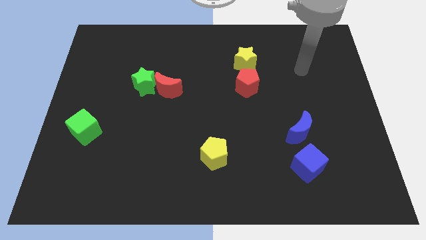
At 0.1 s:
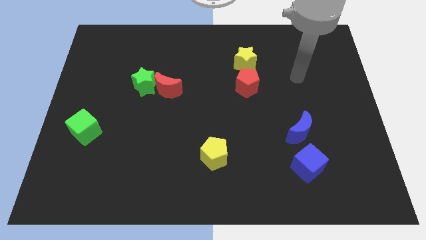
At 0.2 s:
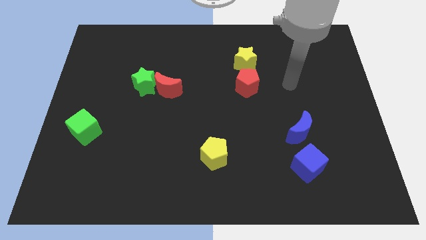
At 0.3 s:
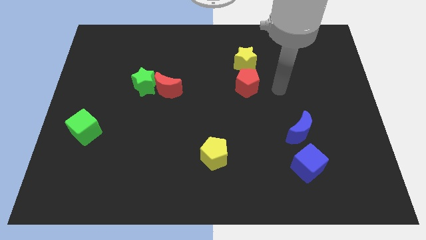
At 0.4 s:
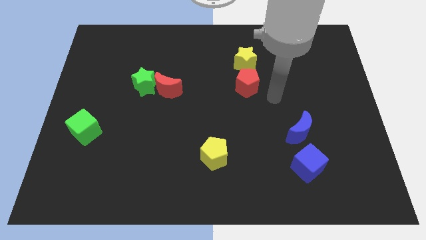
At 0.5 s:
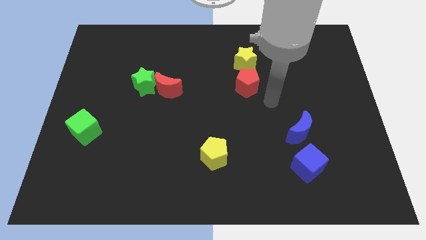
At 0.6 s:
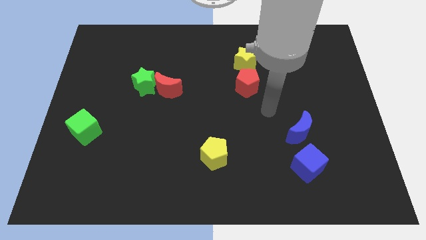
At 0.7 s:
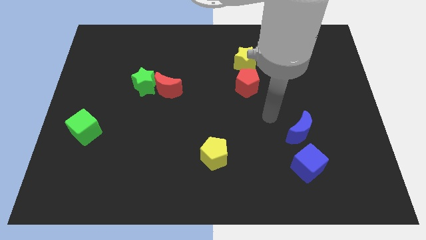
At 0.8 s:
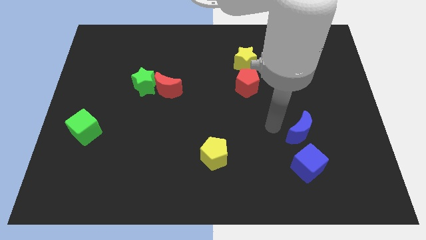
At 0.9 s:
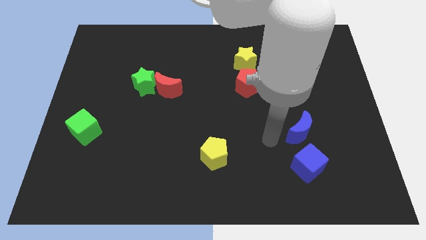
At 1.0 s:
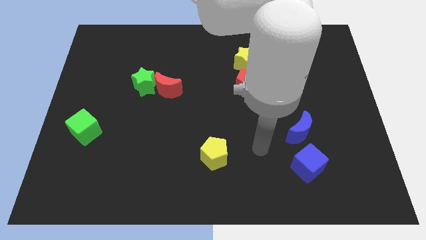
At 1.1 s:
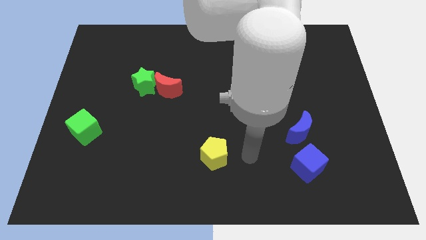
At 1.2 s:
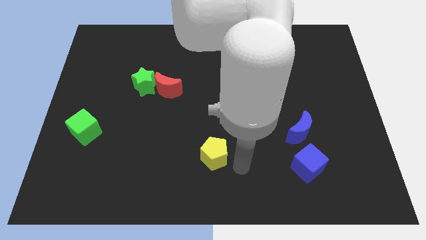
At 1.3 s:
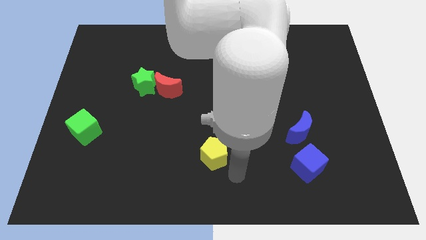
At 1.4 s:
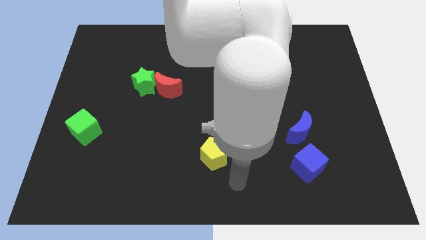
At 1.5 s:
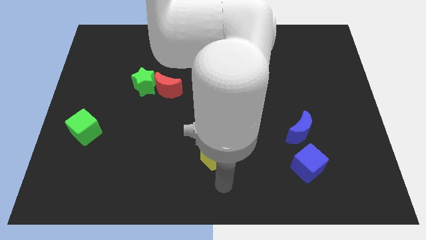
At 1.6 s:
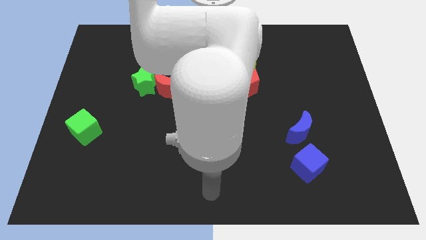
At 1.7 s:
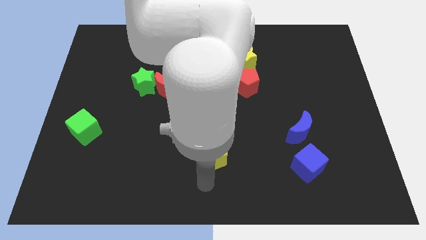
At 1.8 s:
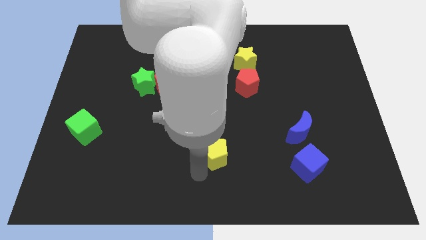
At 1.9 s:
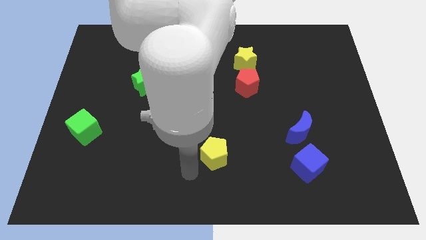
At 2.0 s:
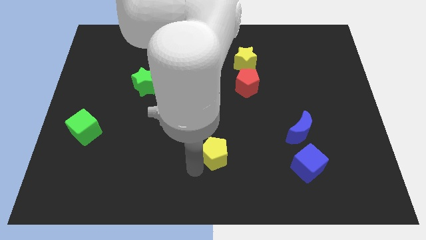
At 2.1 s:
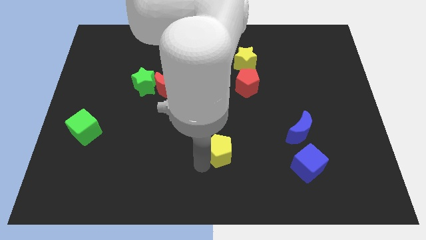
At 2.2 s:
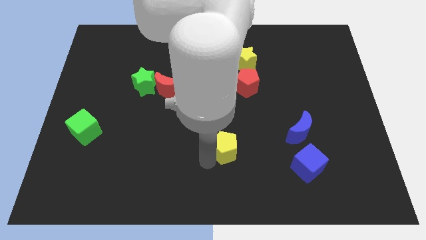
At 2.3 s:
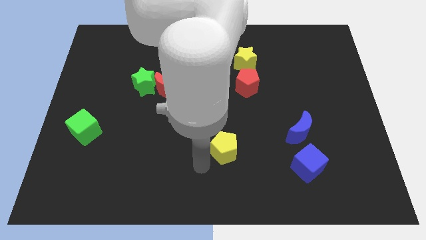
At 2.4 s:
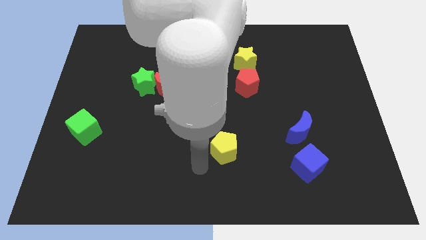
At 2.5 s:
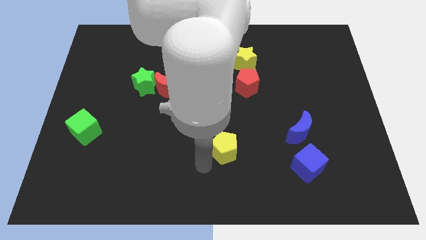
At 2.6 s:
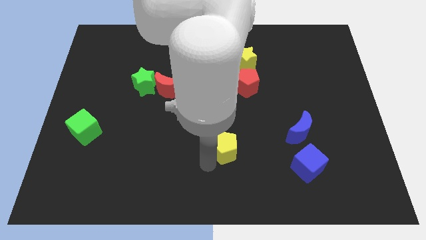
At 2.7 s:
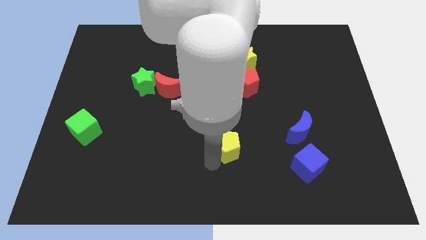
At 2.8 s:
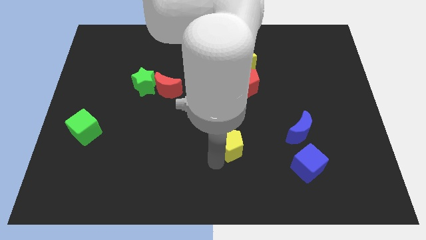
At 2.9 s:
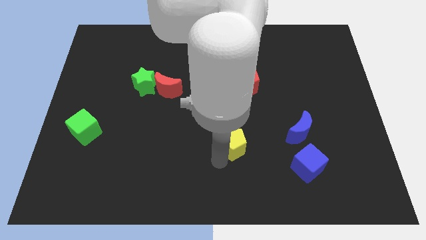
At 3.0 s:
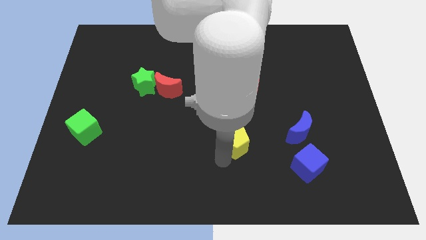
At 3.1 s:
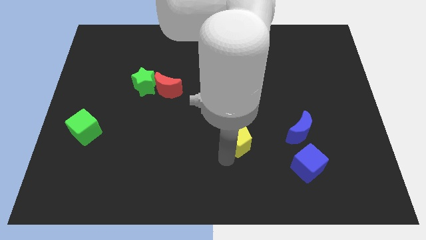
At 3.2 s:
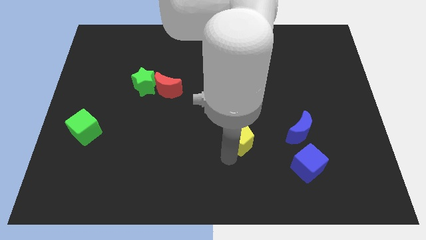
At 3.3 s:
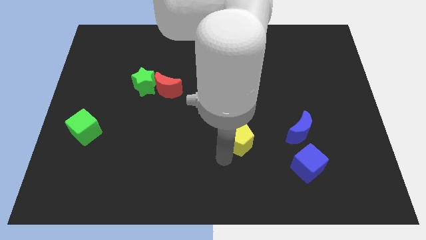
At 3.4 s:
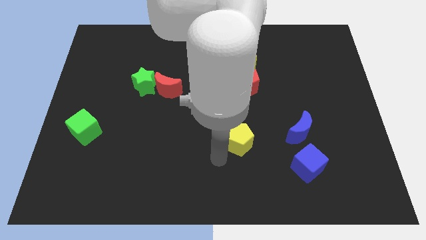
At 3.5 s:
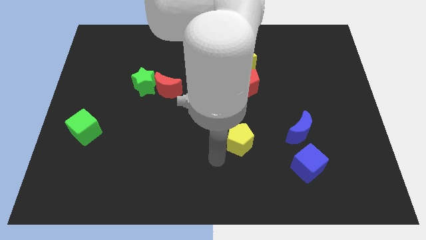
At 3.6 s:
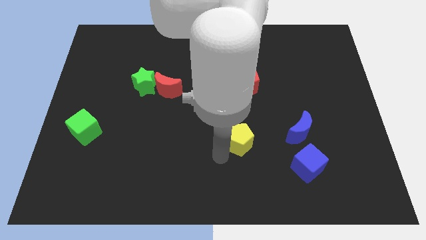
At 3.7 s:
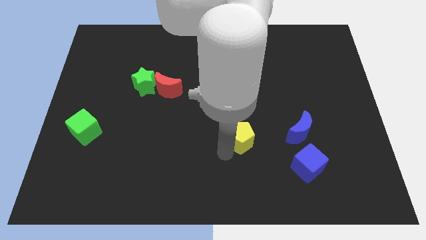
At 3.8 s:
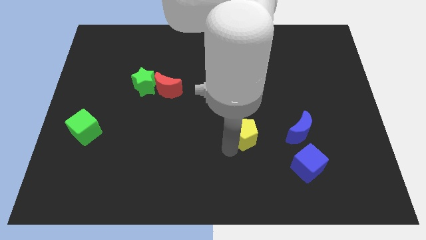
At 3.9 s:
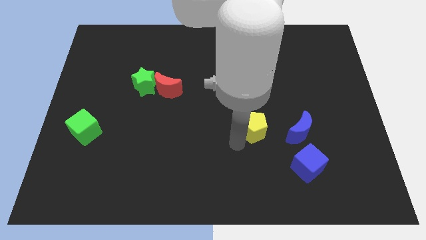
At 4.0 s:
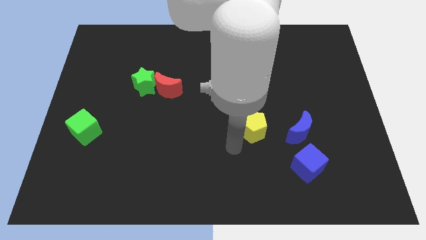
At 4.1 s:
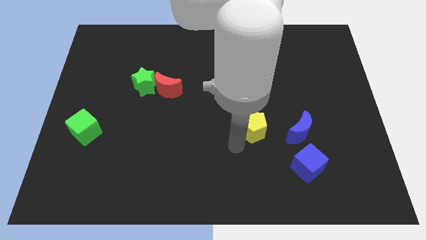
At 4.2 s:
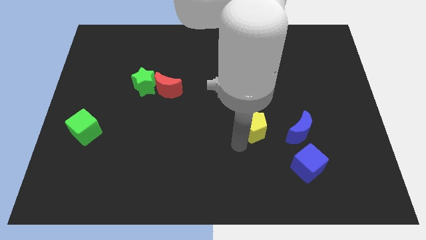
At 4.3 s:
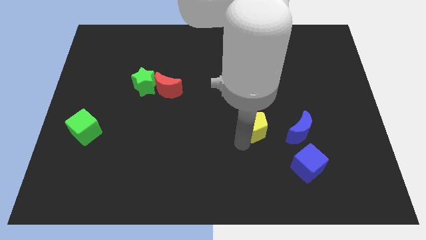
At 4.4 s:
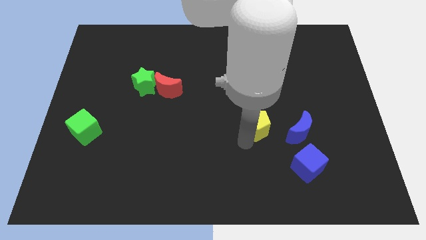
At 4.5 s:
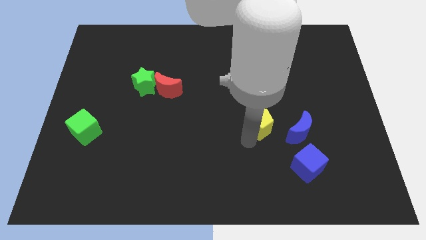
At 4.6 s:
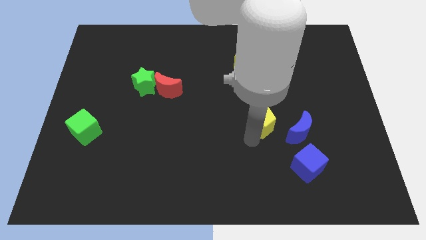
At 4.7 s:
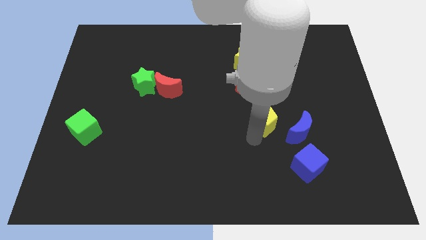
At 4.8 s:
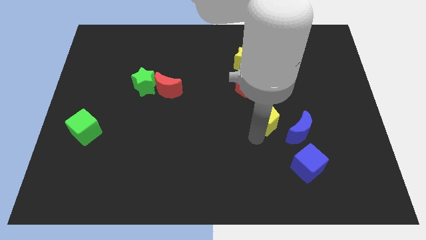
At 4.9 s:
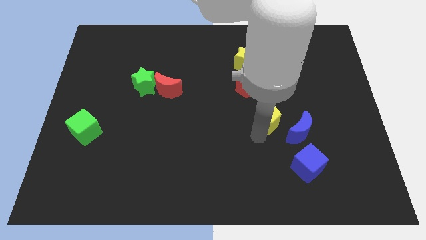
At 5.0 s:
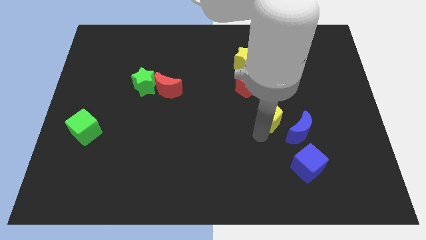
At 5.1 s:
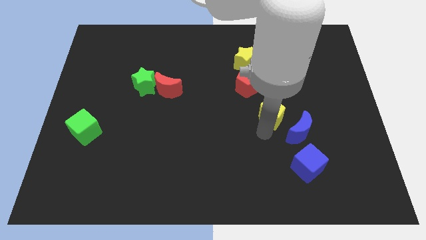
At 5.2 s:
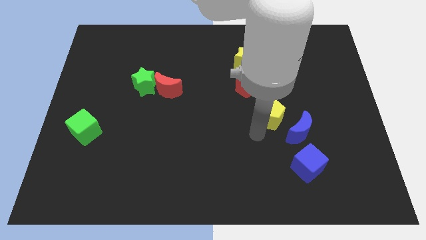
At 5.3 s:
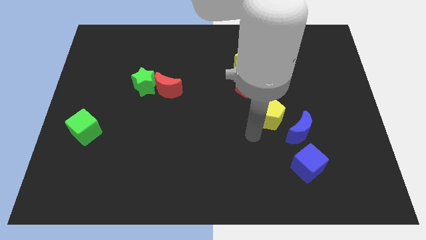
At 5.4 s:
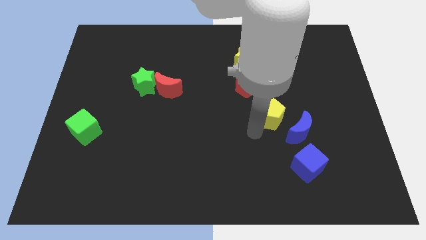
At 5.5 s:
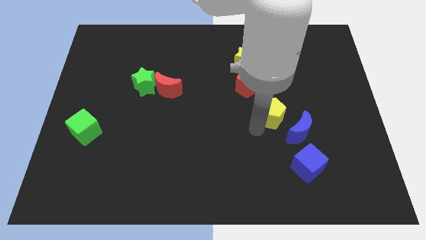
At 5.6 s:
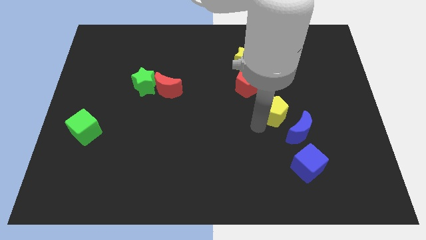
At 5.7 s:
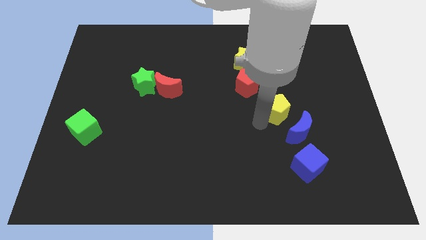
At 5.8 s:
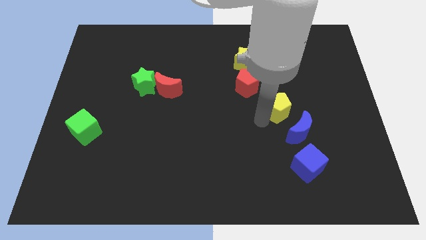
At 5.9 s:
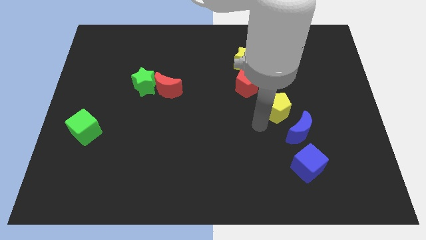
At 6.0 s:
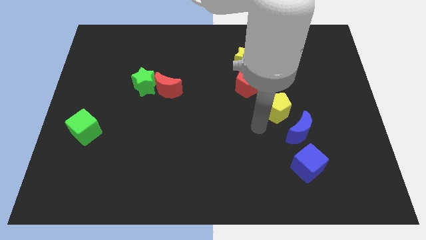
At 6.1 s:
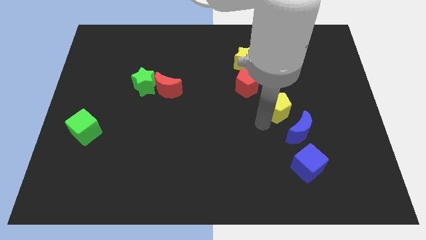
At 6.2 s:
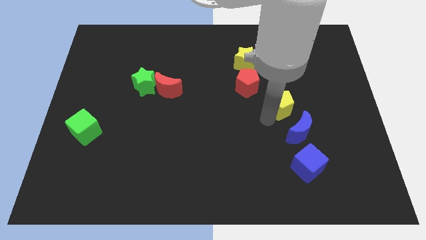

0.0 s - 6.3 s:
move the yellow pentagon diagonally upwards and right

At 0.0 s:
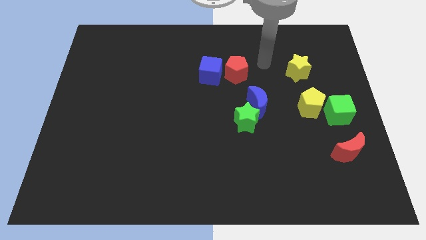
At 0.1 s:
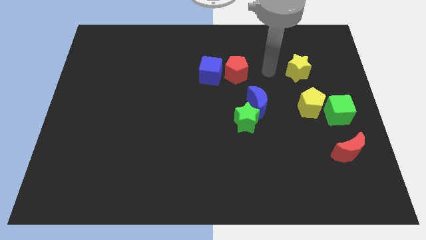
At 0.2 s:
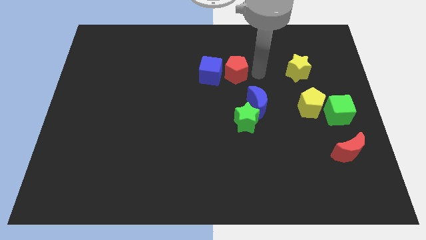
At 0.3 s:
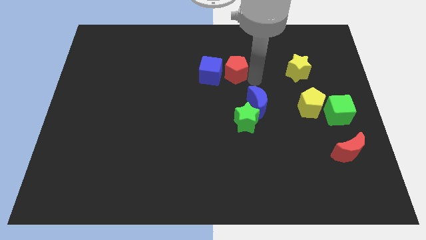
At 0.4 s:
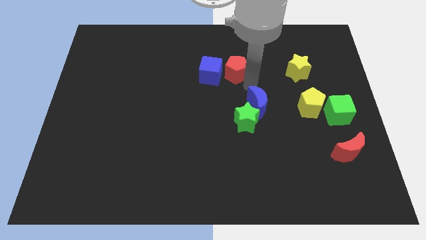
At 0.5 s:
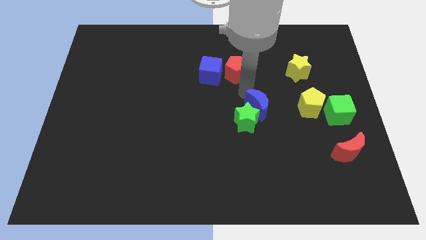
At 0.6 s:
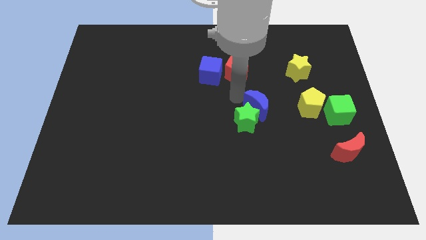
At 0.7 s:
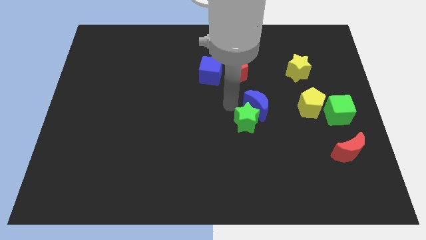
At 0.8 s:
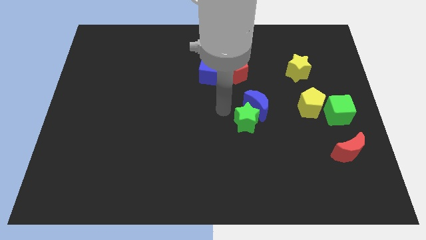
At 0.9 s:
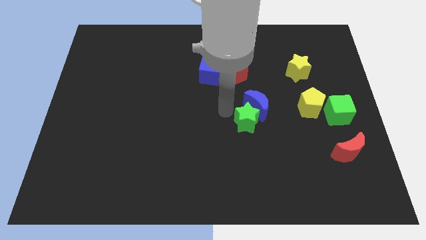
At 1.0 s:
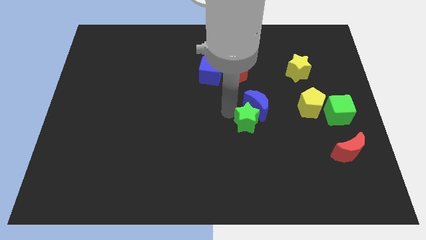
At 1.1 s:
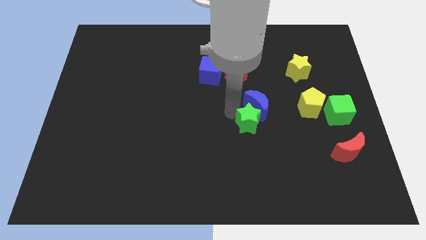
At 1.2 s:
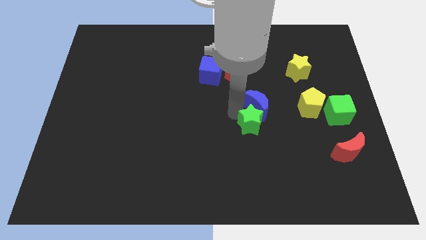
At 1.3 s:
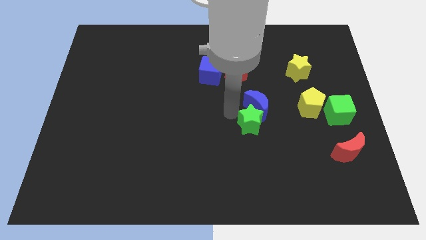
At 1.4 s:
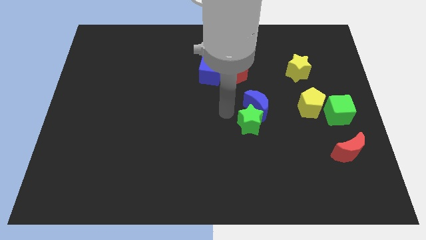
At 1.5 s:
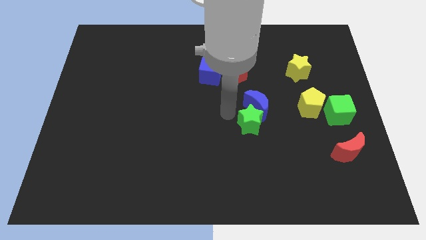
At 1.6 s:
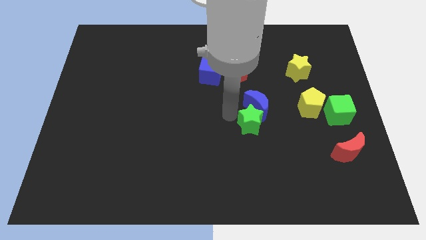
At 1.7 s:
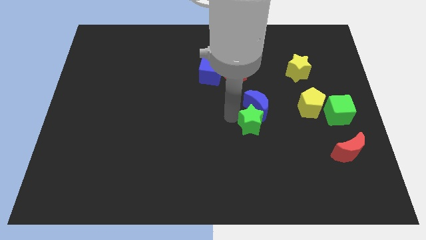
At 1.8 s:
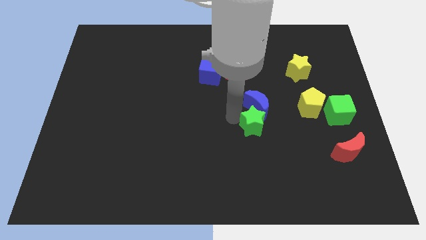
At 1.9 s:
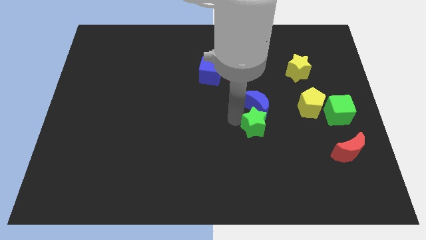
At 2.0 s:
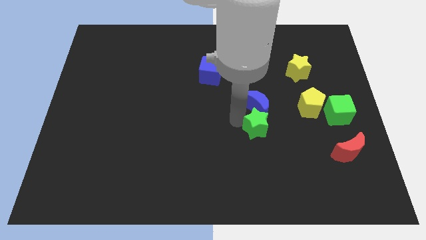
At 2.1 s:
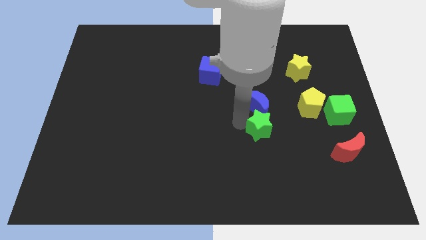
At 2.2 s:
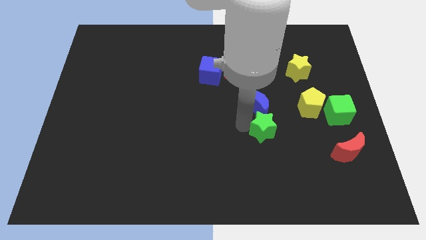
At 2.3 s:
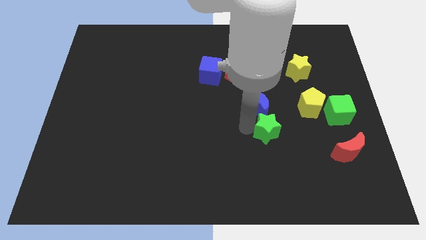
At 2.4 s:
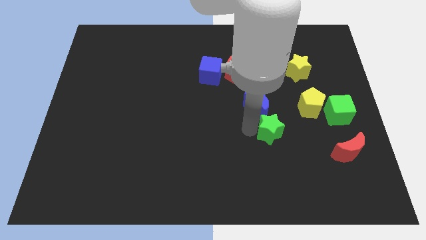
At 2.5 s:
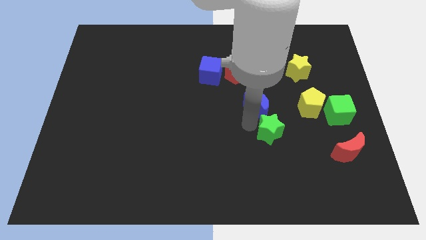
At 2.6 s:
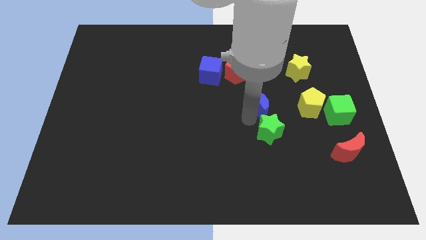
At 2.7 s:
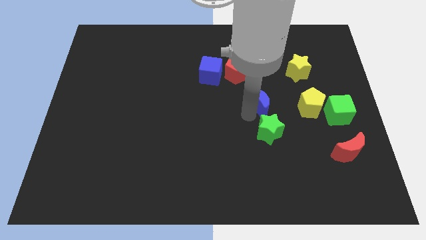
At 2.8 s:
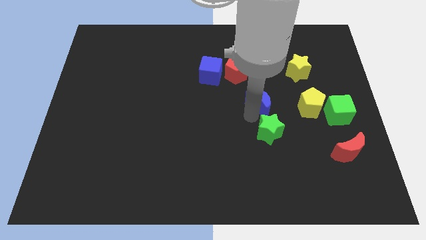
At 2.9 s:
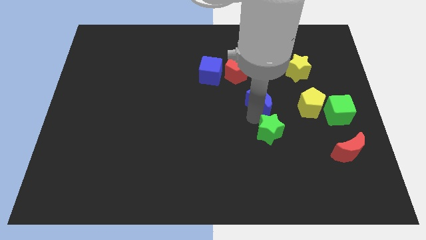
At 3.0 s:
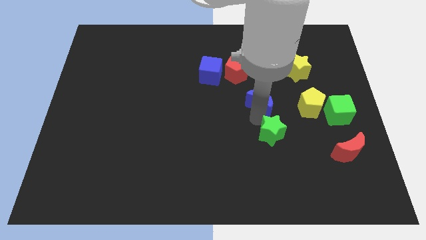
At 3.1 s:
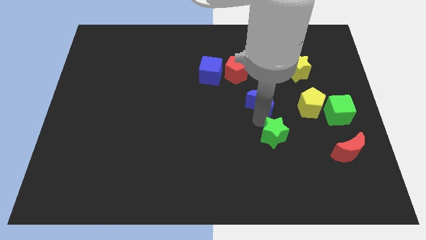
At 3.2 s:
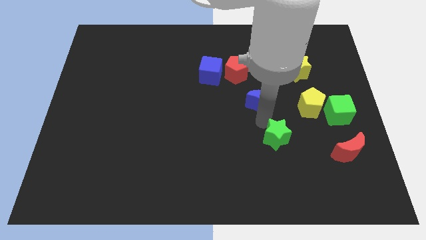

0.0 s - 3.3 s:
slightly push the green star down and then to the right
